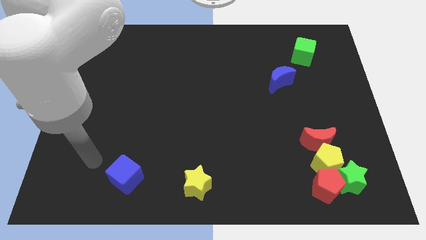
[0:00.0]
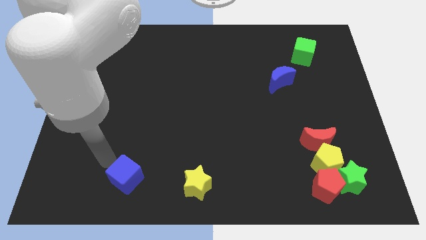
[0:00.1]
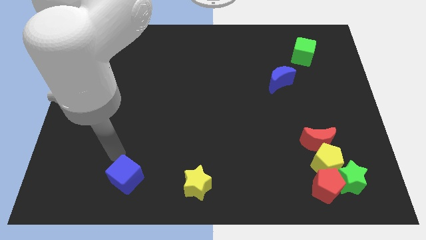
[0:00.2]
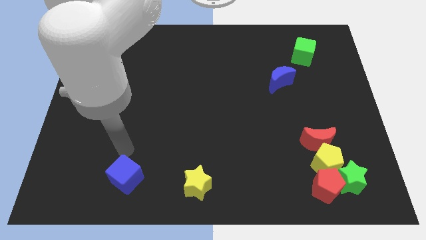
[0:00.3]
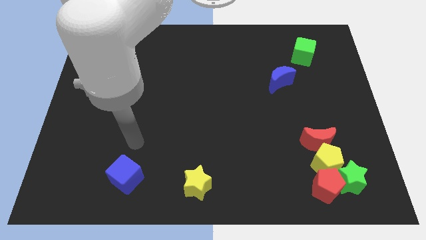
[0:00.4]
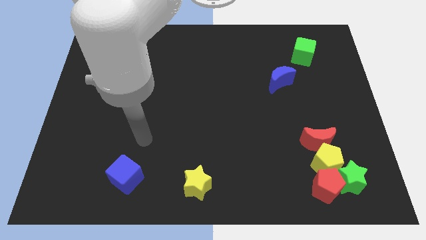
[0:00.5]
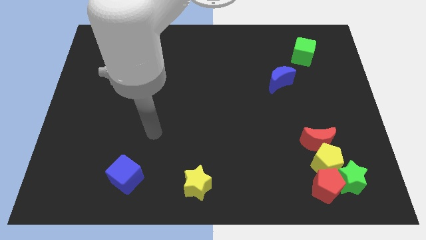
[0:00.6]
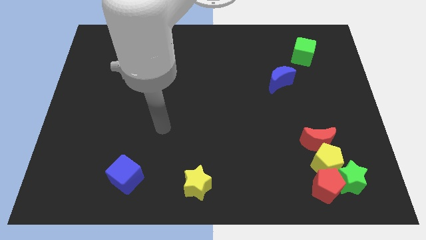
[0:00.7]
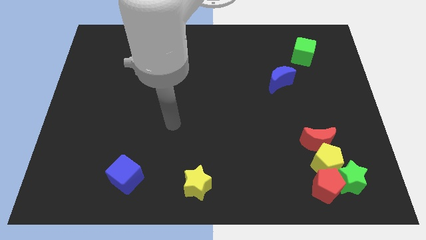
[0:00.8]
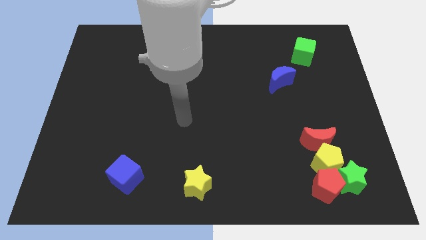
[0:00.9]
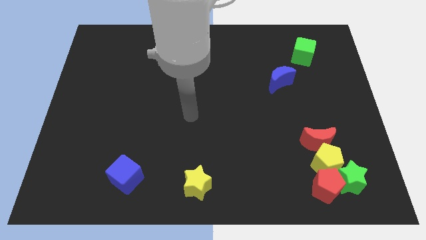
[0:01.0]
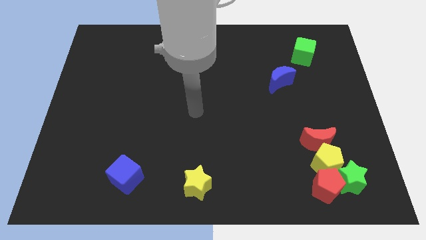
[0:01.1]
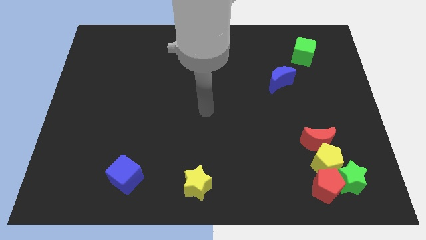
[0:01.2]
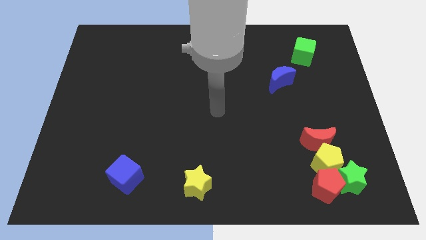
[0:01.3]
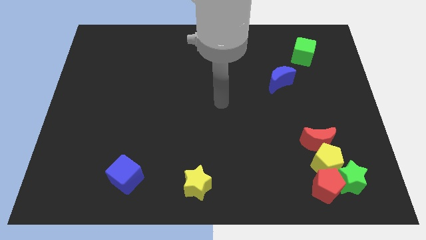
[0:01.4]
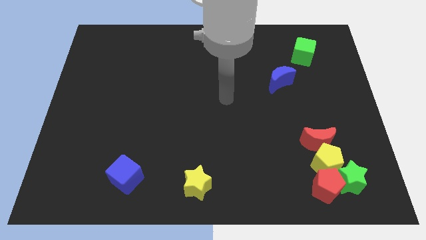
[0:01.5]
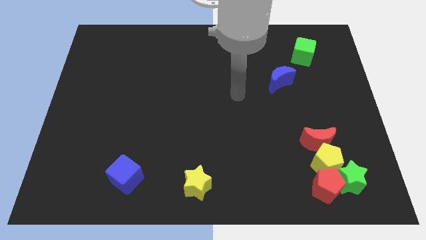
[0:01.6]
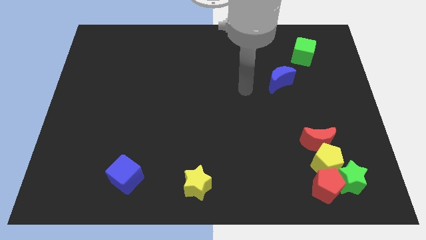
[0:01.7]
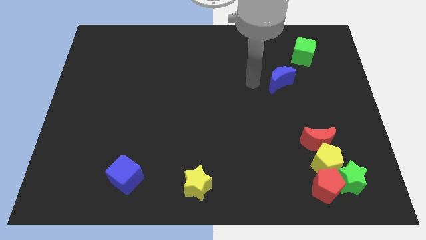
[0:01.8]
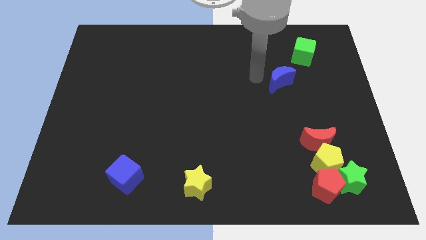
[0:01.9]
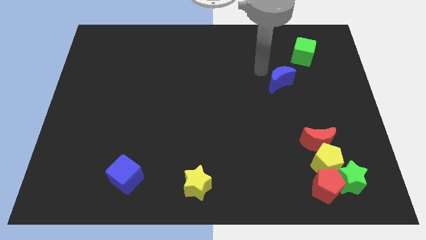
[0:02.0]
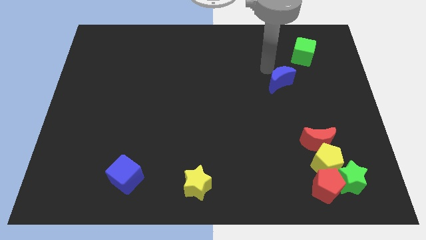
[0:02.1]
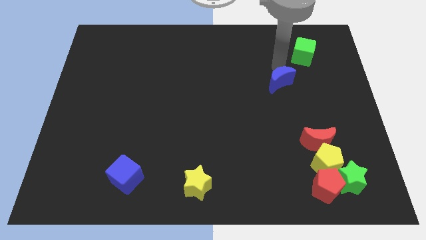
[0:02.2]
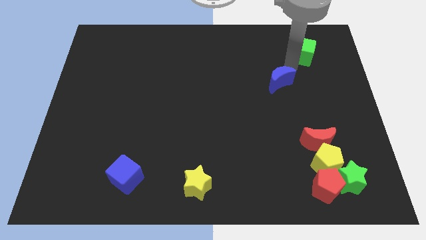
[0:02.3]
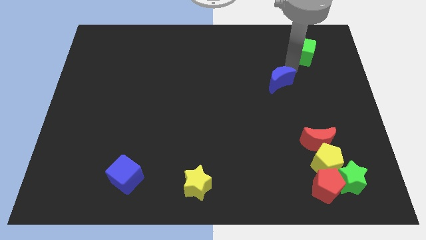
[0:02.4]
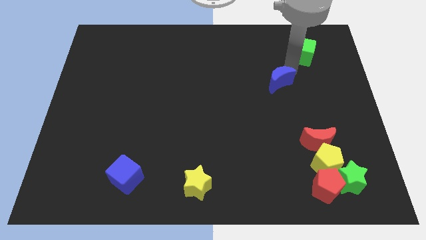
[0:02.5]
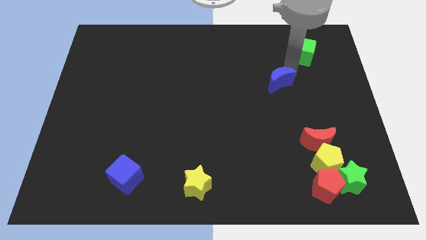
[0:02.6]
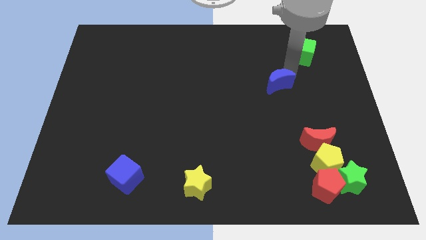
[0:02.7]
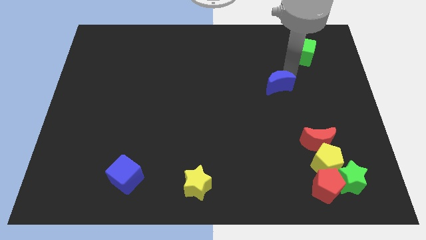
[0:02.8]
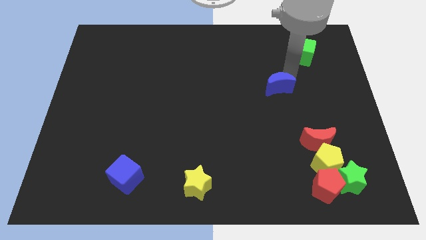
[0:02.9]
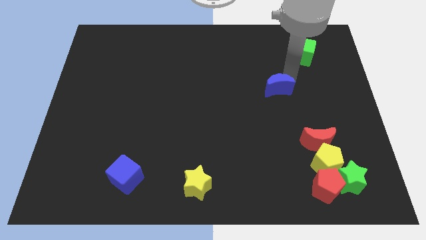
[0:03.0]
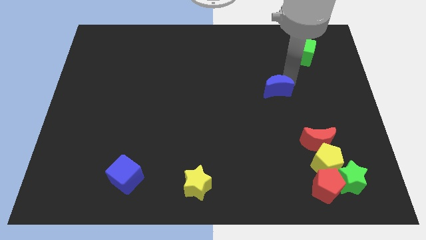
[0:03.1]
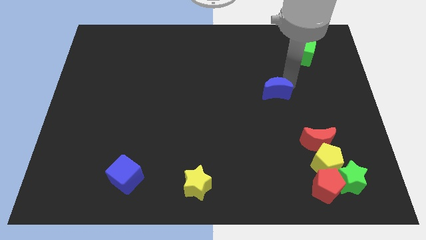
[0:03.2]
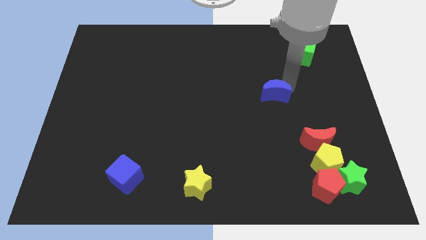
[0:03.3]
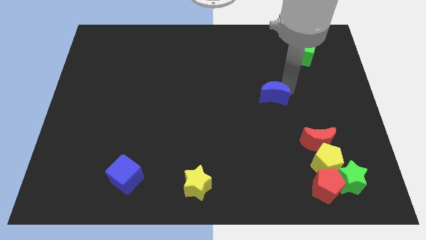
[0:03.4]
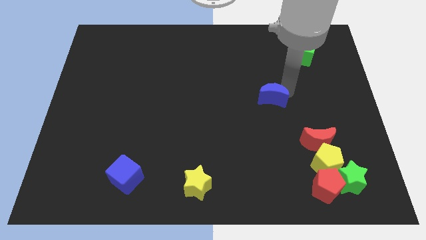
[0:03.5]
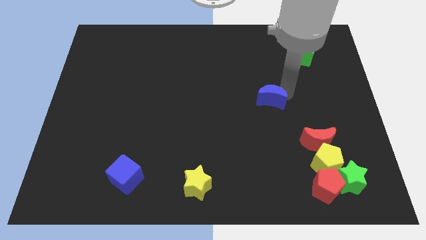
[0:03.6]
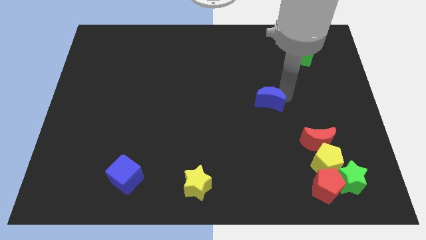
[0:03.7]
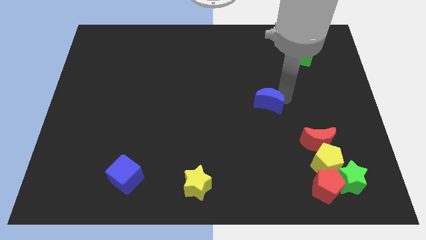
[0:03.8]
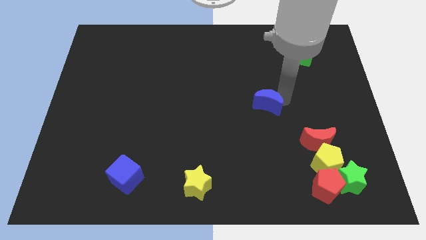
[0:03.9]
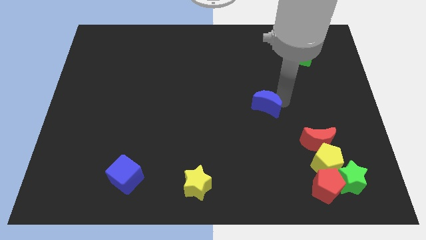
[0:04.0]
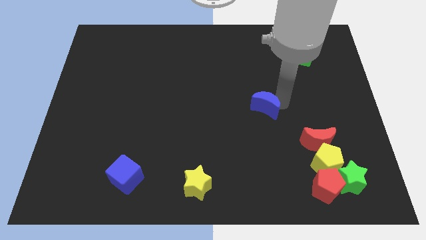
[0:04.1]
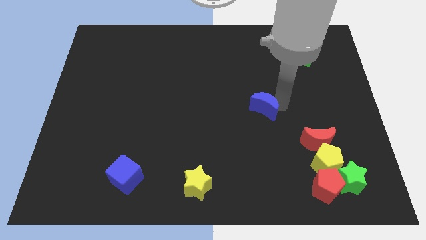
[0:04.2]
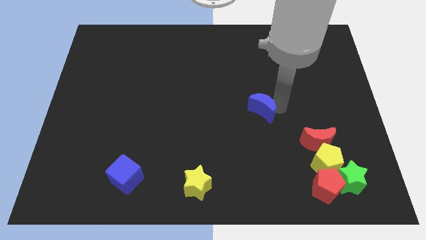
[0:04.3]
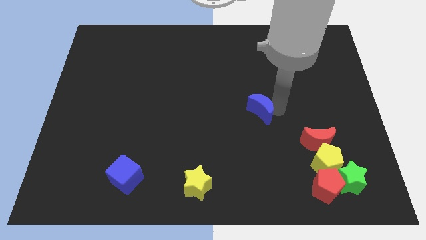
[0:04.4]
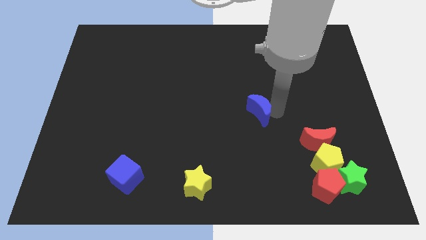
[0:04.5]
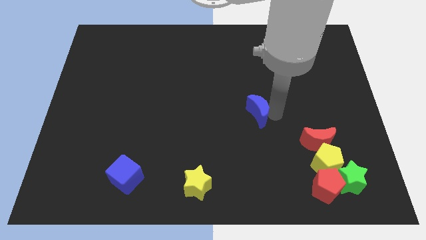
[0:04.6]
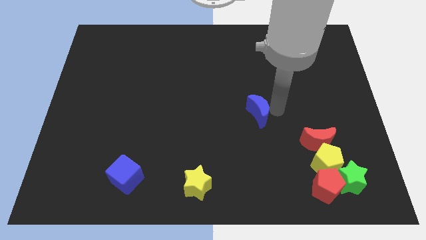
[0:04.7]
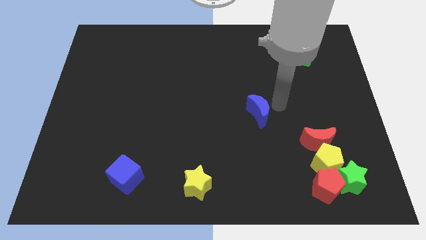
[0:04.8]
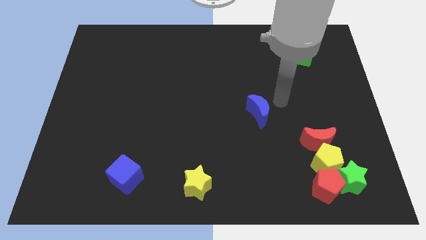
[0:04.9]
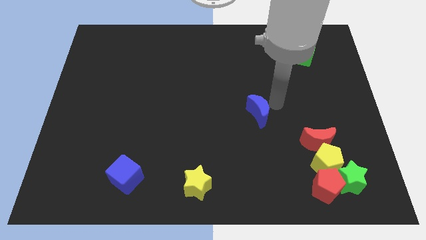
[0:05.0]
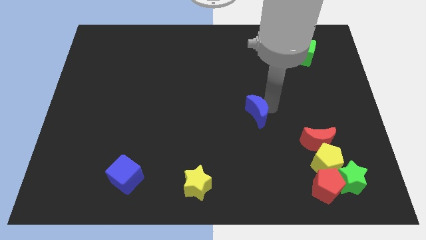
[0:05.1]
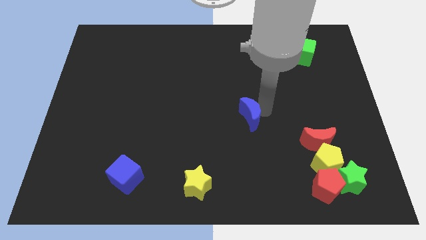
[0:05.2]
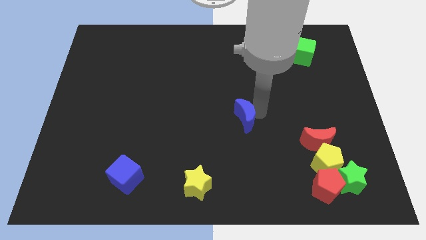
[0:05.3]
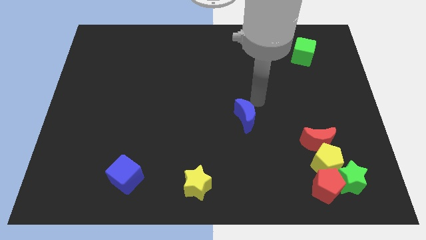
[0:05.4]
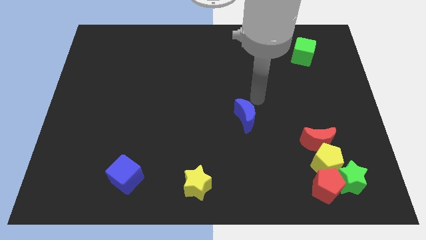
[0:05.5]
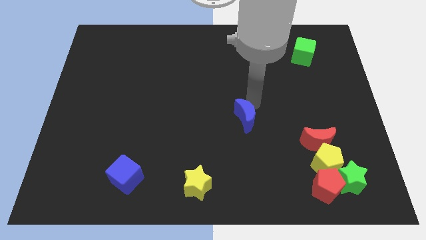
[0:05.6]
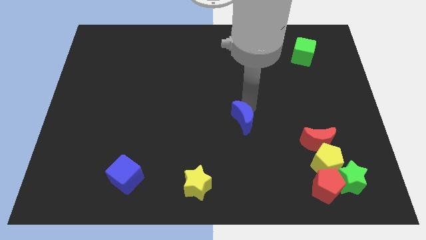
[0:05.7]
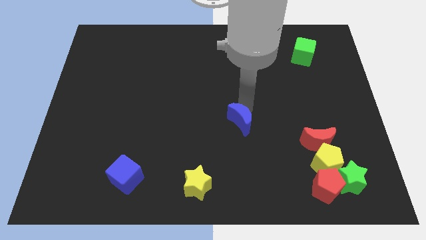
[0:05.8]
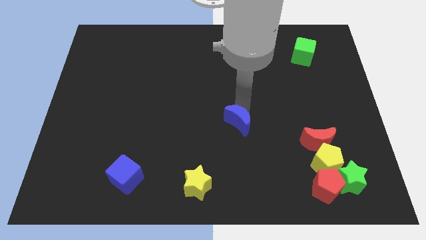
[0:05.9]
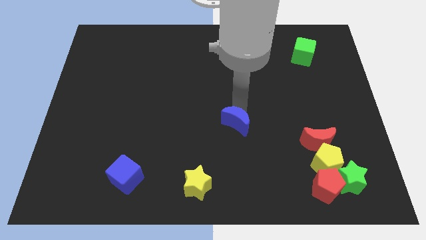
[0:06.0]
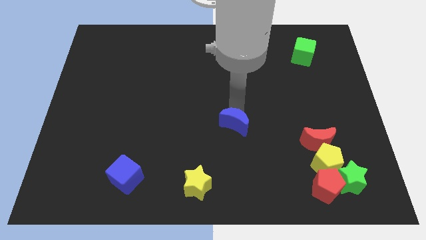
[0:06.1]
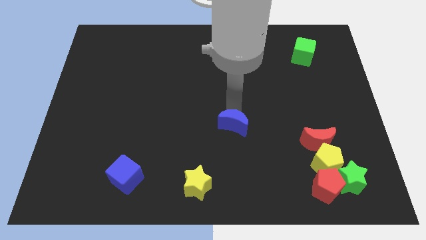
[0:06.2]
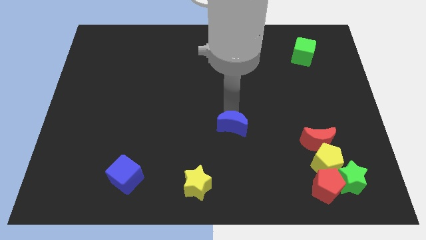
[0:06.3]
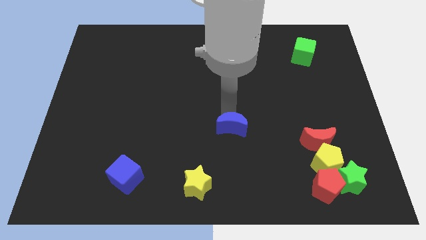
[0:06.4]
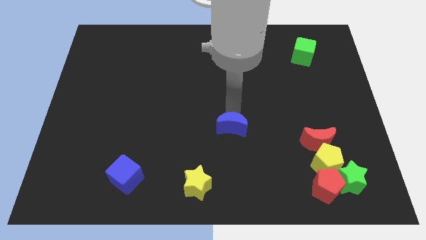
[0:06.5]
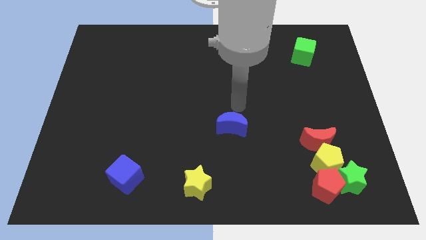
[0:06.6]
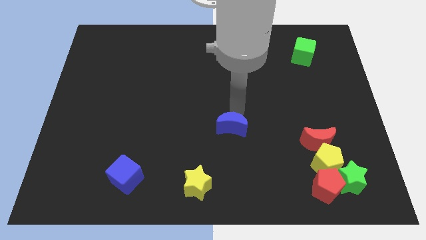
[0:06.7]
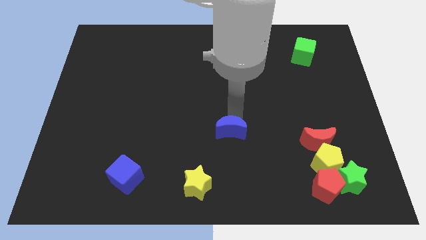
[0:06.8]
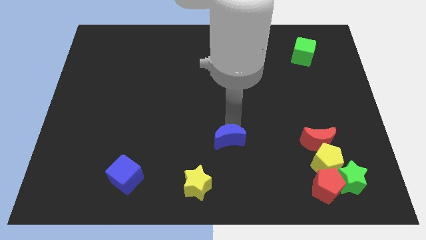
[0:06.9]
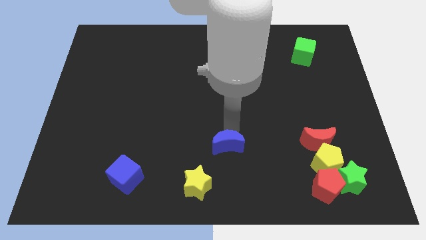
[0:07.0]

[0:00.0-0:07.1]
put the blue moon diagonally up and to the right of the yellow star
